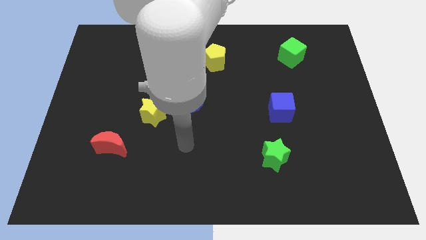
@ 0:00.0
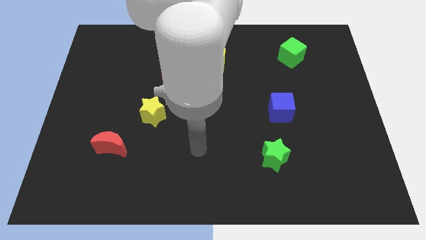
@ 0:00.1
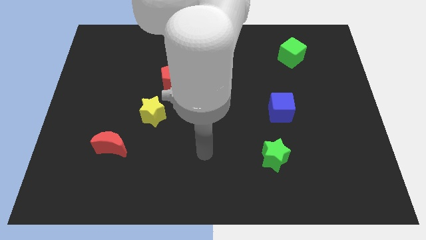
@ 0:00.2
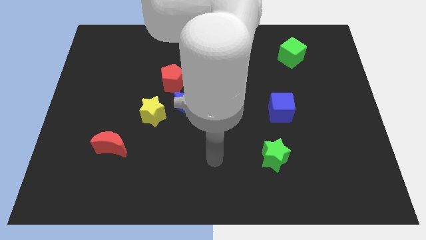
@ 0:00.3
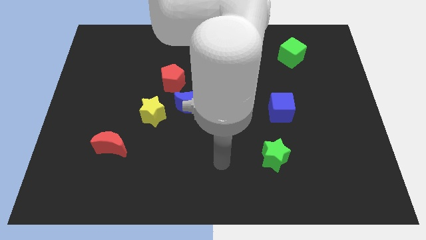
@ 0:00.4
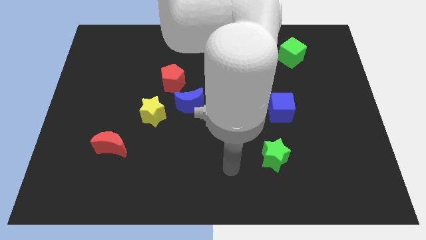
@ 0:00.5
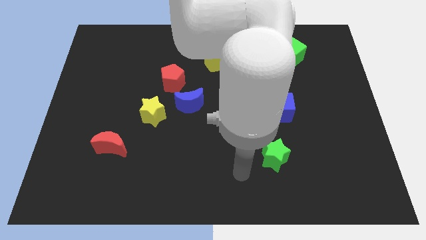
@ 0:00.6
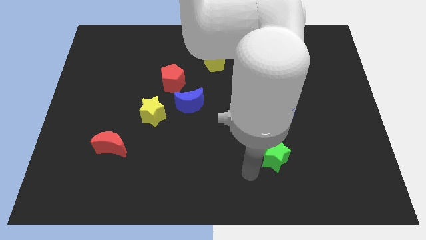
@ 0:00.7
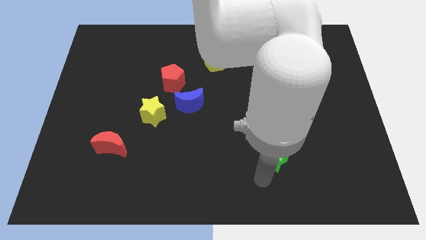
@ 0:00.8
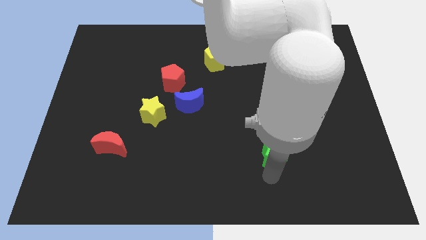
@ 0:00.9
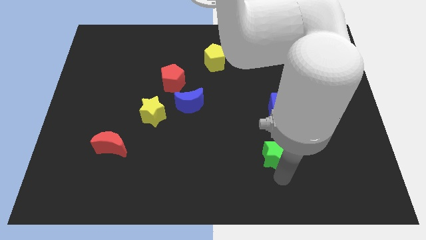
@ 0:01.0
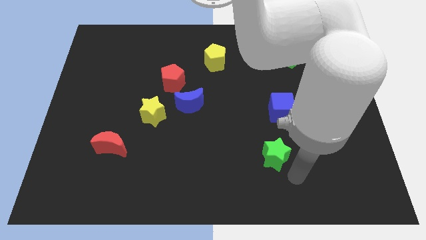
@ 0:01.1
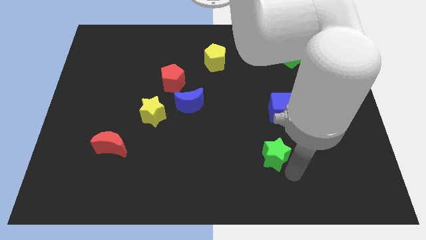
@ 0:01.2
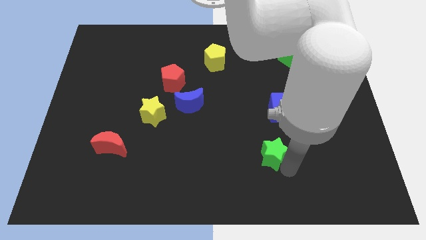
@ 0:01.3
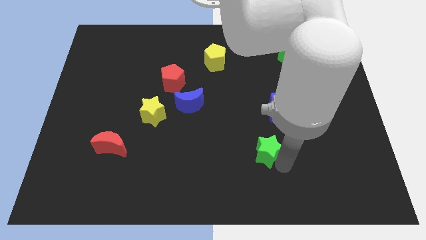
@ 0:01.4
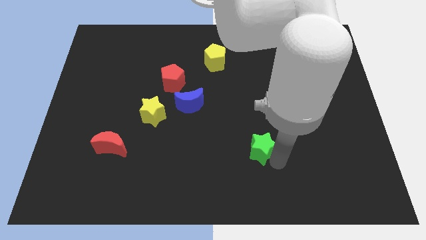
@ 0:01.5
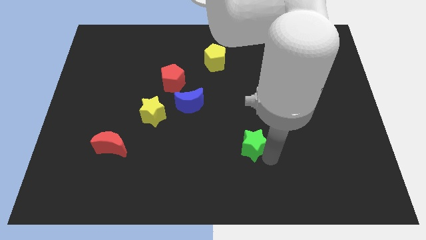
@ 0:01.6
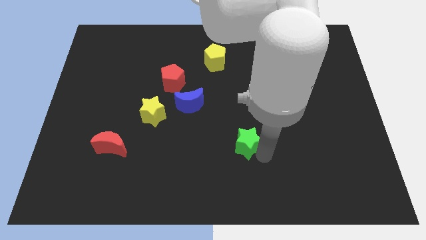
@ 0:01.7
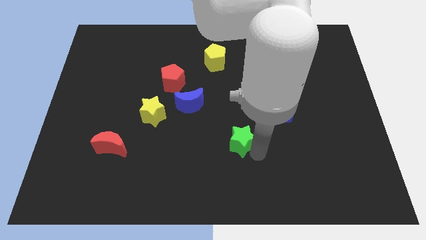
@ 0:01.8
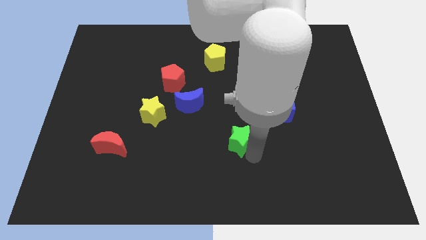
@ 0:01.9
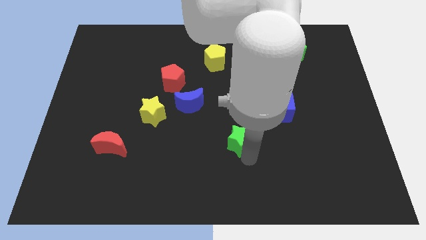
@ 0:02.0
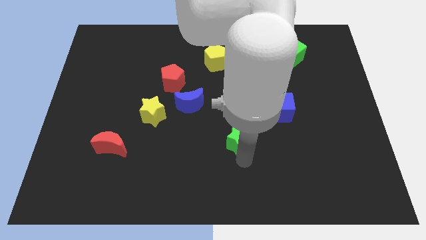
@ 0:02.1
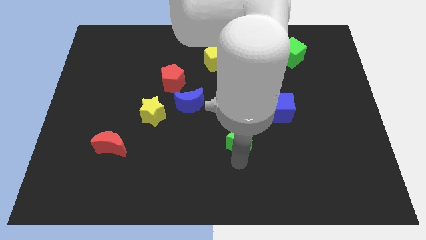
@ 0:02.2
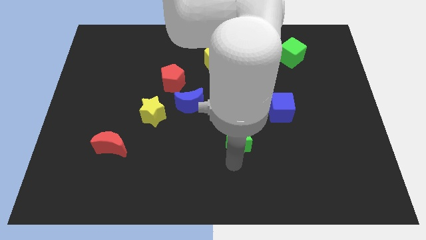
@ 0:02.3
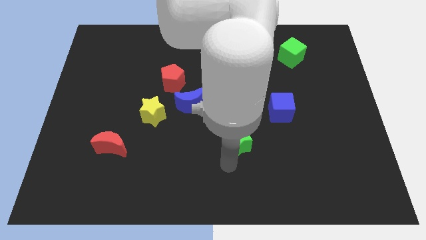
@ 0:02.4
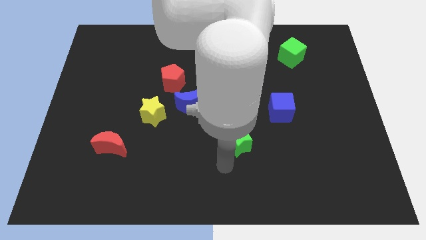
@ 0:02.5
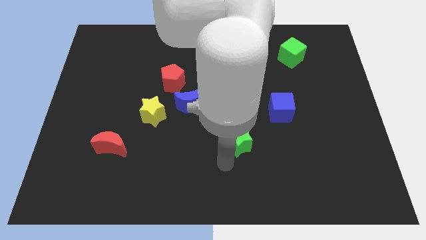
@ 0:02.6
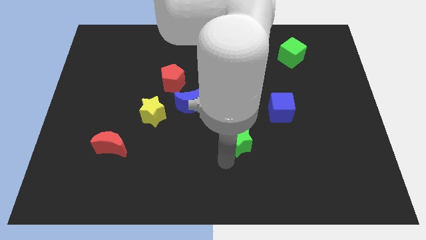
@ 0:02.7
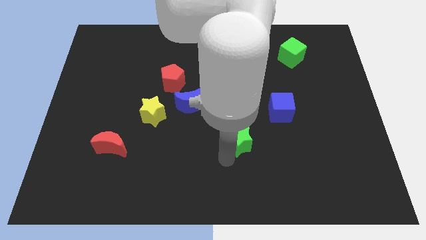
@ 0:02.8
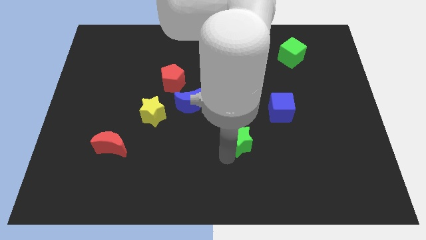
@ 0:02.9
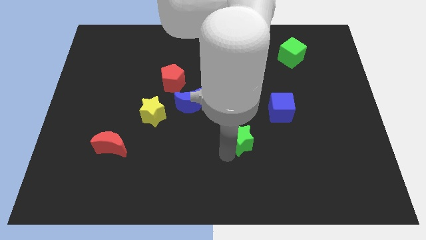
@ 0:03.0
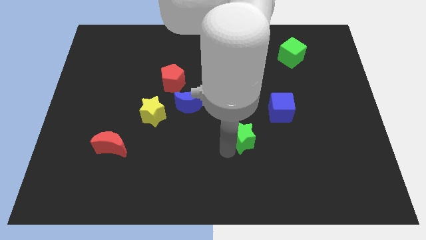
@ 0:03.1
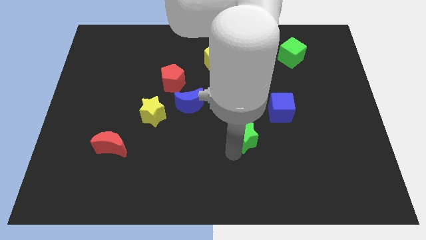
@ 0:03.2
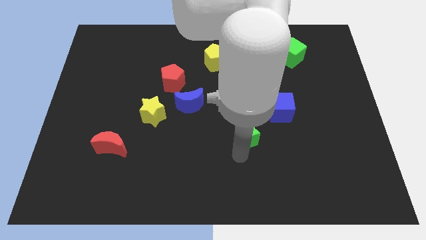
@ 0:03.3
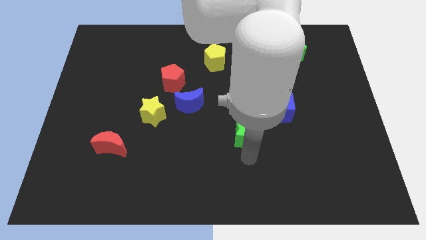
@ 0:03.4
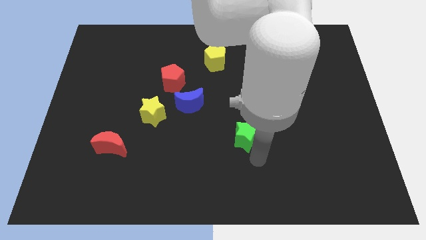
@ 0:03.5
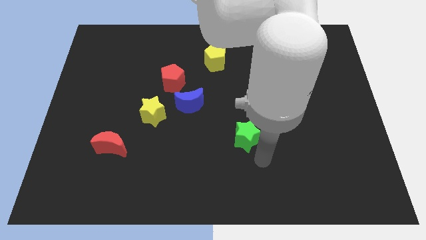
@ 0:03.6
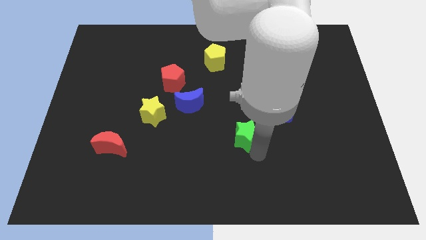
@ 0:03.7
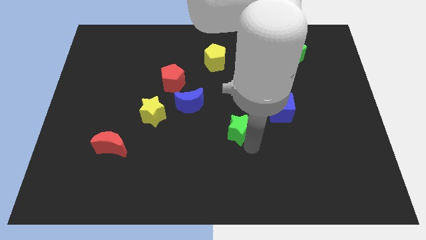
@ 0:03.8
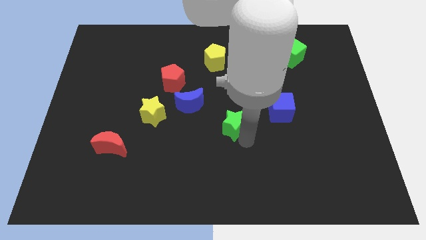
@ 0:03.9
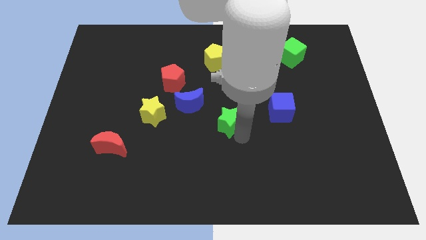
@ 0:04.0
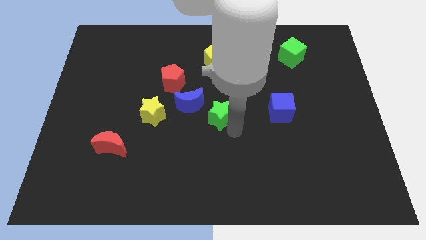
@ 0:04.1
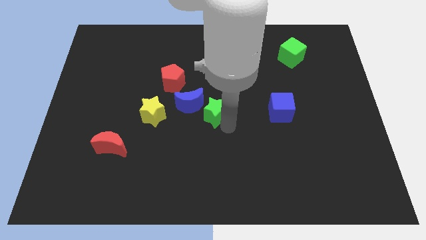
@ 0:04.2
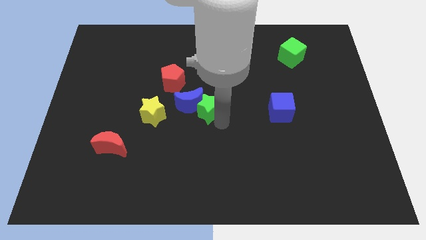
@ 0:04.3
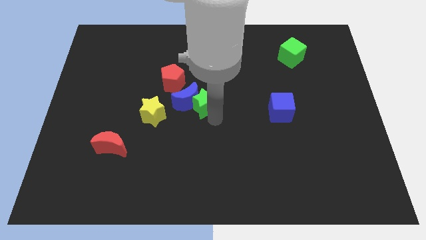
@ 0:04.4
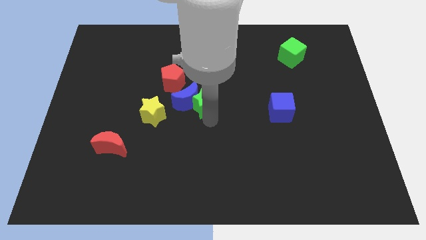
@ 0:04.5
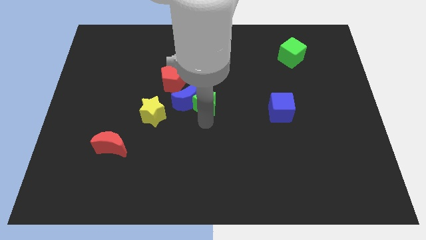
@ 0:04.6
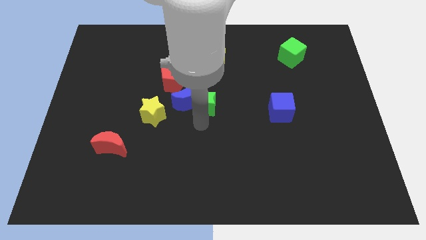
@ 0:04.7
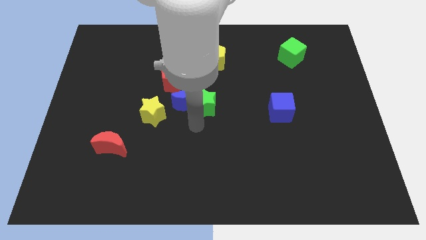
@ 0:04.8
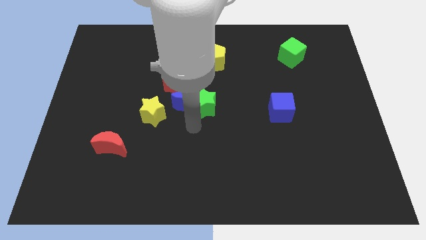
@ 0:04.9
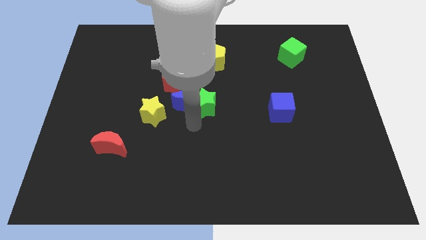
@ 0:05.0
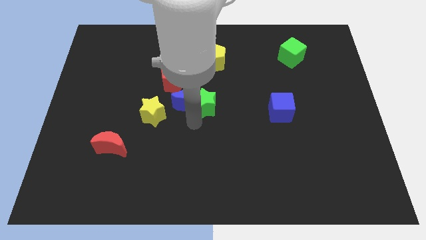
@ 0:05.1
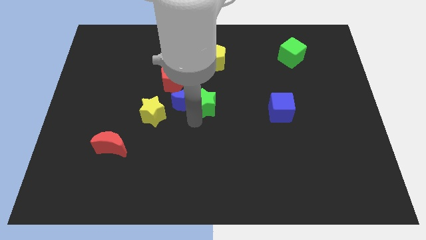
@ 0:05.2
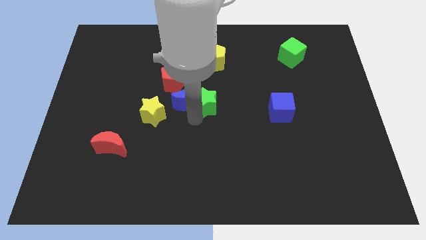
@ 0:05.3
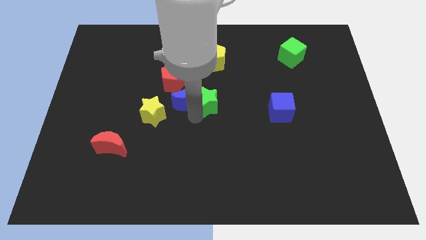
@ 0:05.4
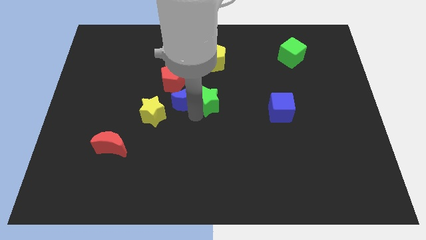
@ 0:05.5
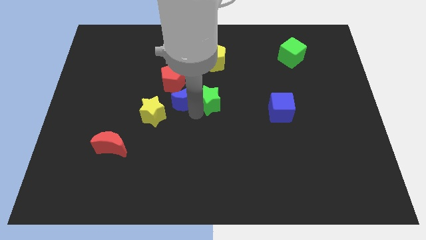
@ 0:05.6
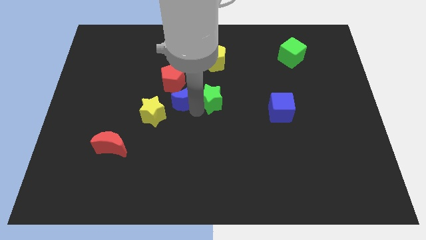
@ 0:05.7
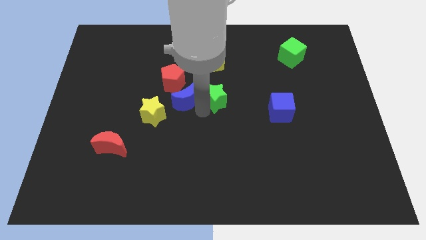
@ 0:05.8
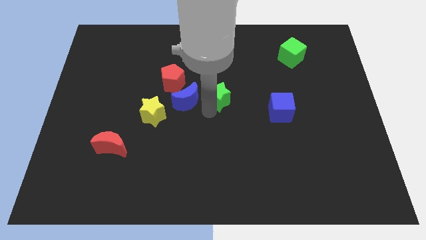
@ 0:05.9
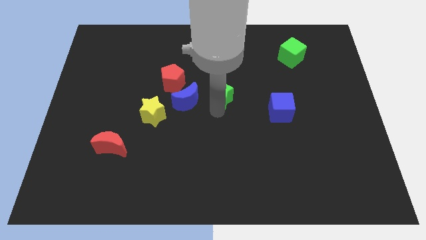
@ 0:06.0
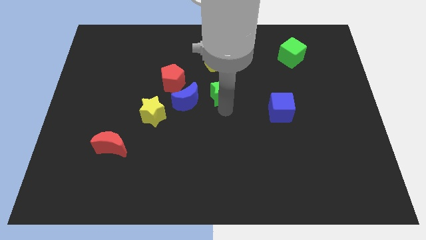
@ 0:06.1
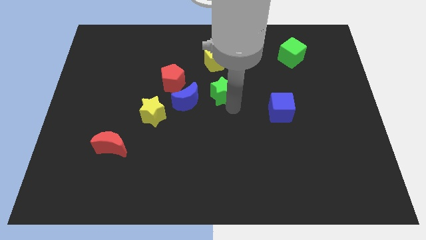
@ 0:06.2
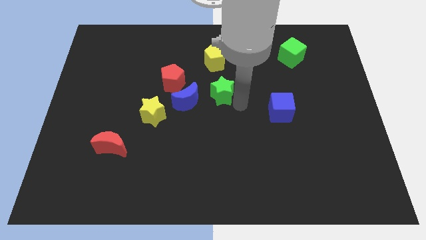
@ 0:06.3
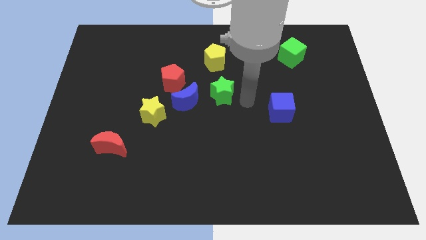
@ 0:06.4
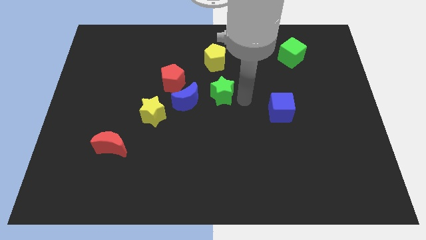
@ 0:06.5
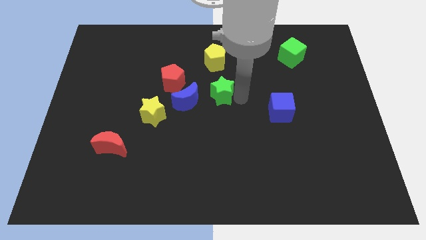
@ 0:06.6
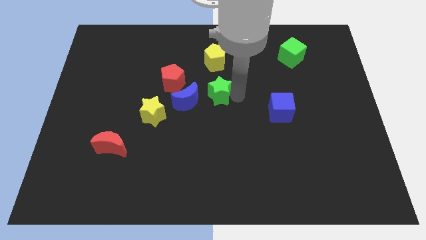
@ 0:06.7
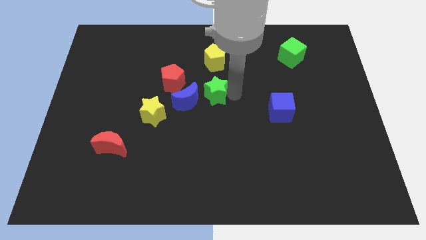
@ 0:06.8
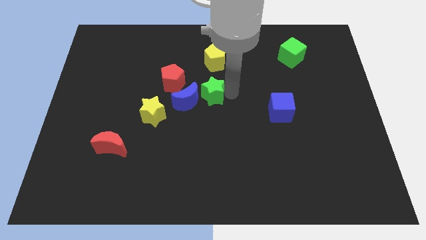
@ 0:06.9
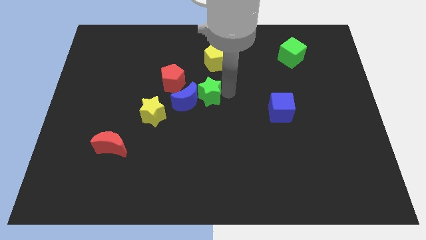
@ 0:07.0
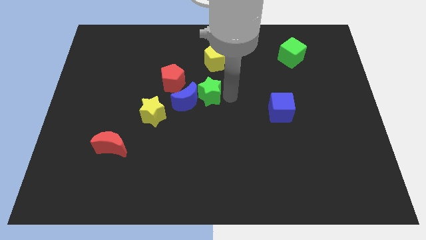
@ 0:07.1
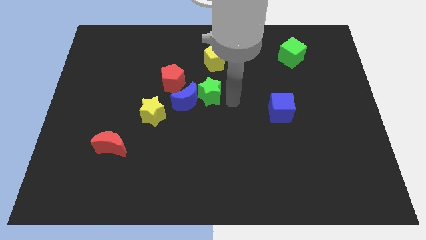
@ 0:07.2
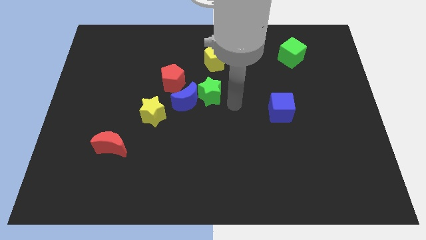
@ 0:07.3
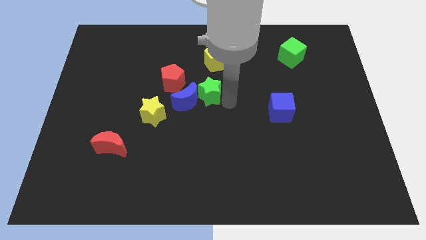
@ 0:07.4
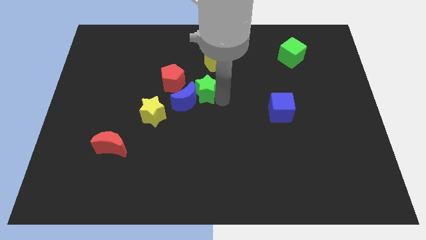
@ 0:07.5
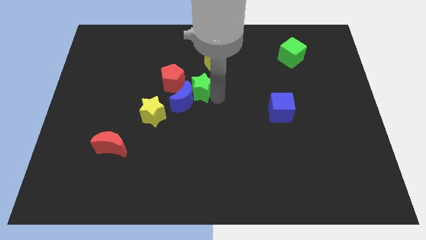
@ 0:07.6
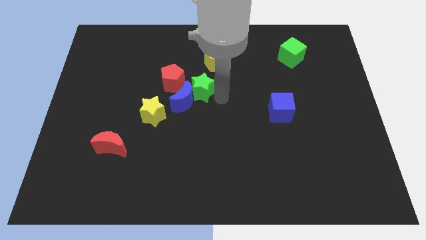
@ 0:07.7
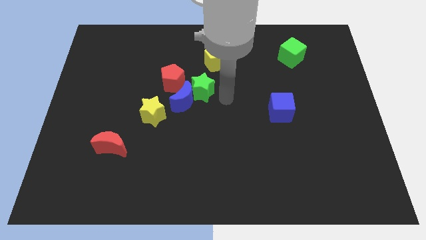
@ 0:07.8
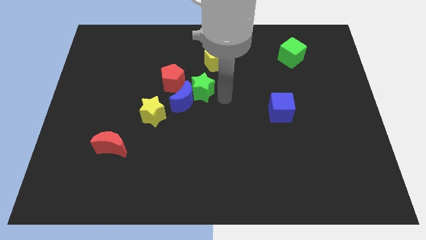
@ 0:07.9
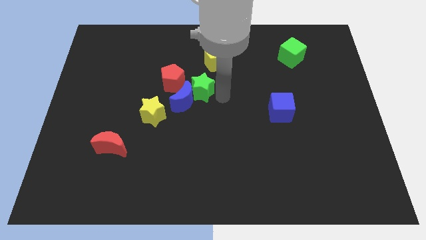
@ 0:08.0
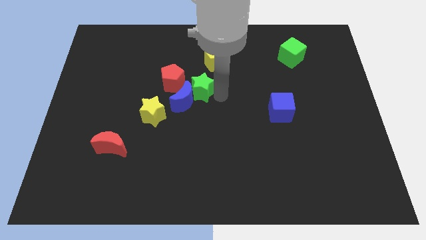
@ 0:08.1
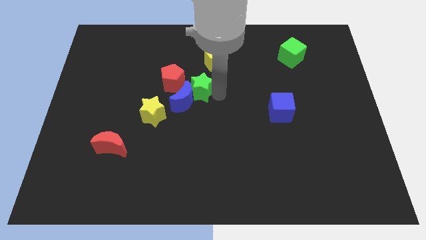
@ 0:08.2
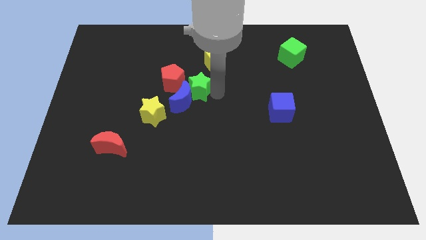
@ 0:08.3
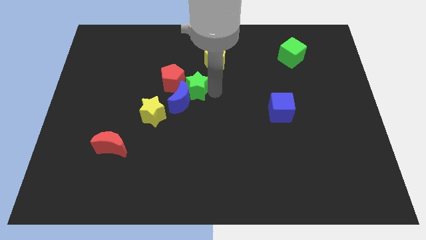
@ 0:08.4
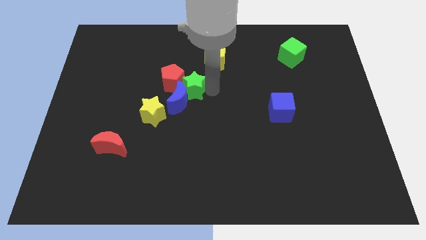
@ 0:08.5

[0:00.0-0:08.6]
move the green star to the red pentagon
